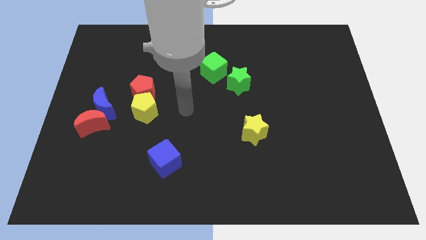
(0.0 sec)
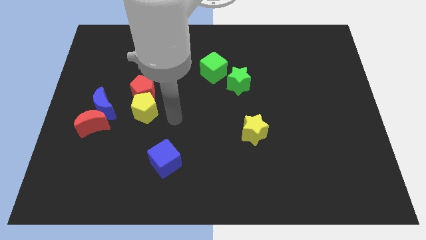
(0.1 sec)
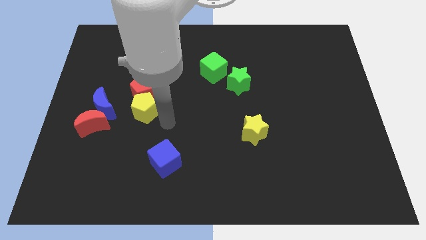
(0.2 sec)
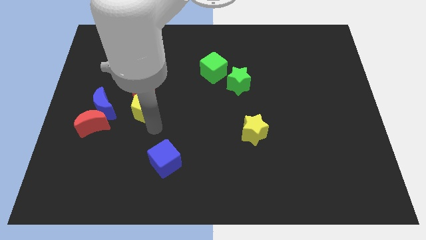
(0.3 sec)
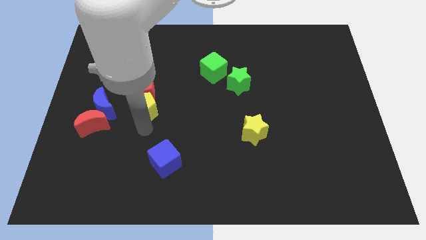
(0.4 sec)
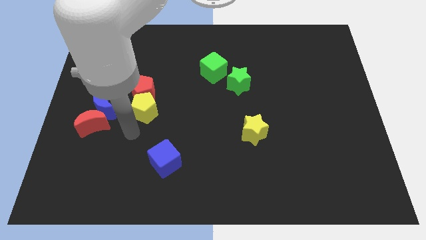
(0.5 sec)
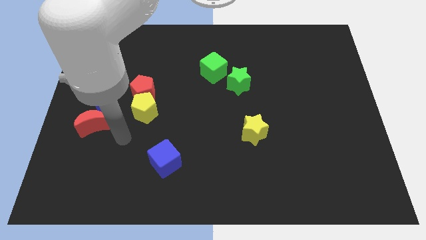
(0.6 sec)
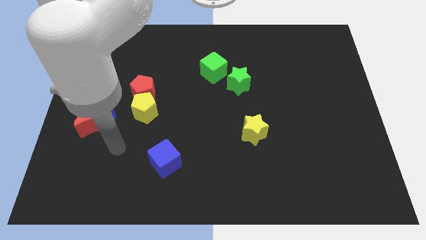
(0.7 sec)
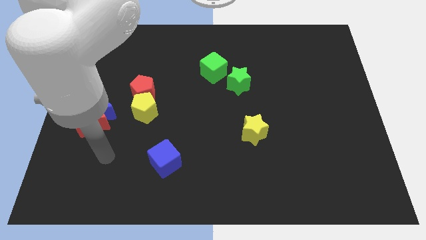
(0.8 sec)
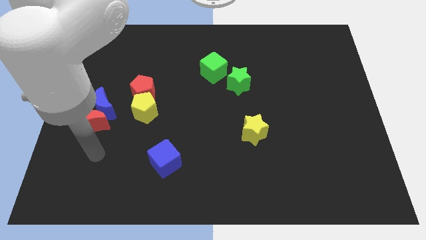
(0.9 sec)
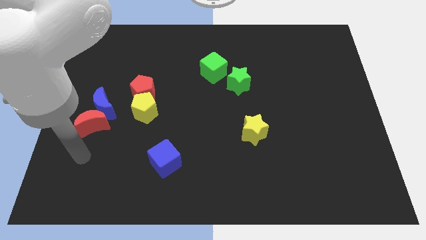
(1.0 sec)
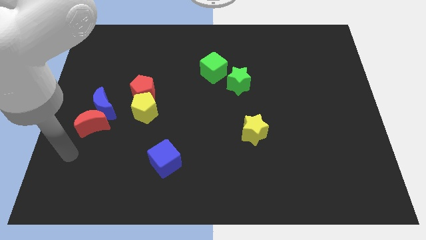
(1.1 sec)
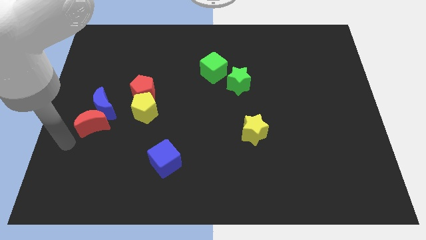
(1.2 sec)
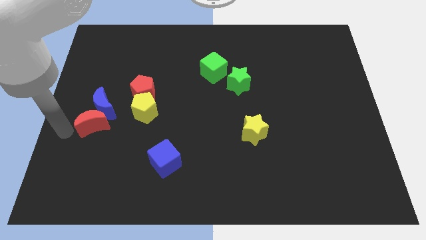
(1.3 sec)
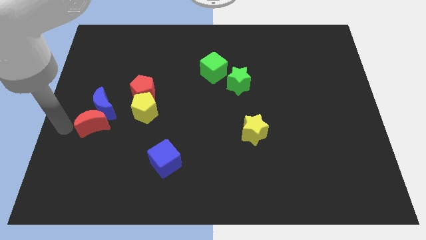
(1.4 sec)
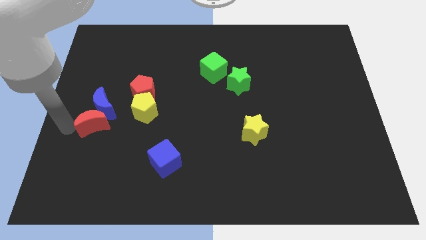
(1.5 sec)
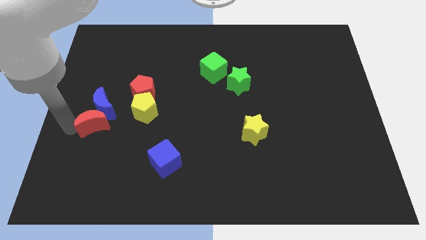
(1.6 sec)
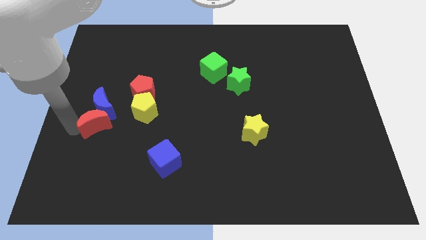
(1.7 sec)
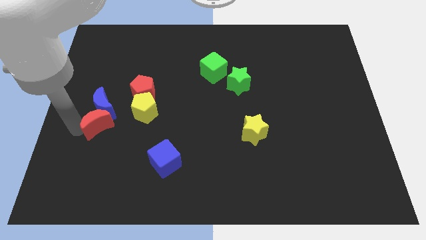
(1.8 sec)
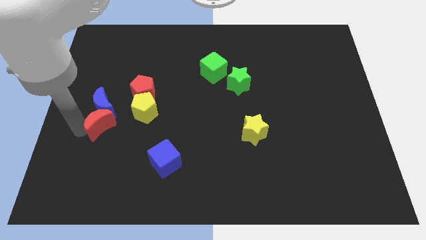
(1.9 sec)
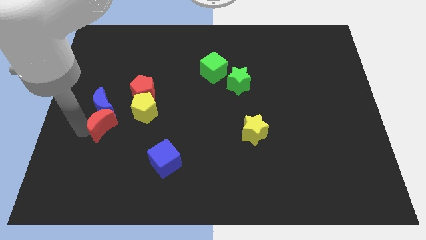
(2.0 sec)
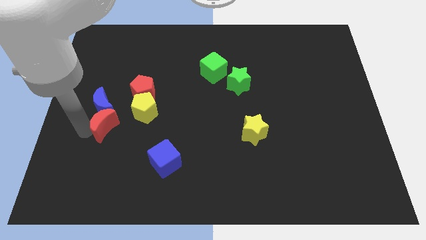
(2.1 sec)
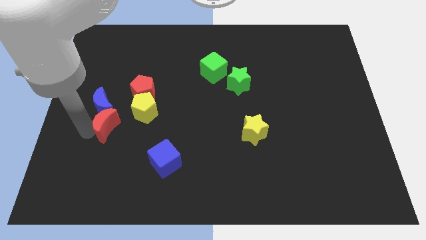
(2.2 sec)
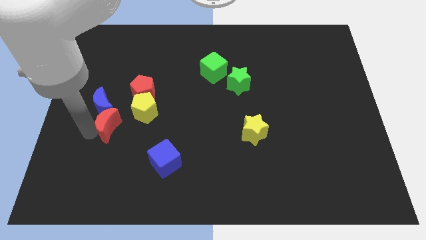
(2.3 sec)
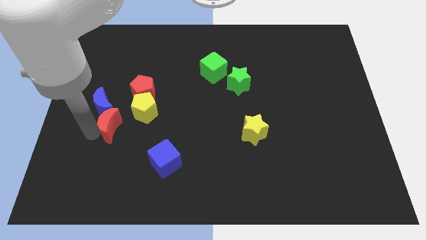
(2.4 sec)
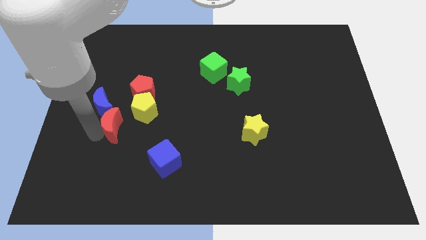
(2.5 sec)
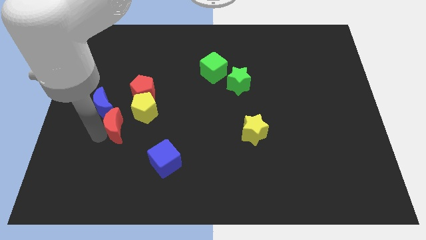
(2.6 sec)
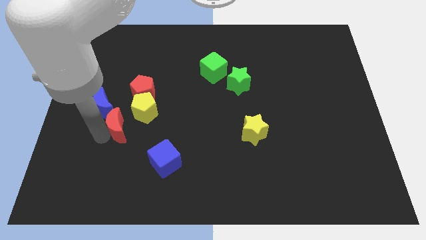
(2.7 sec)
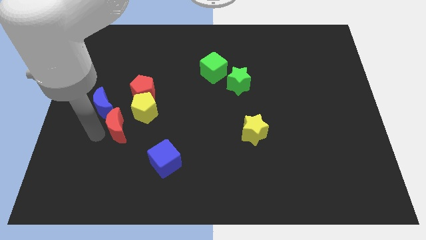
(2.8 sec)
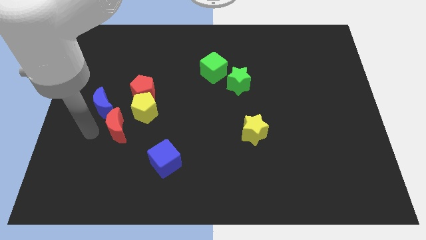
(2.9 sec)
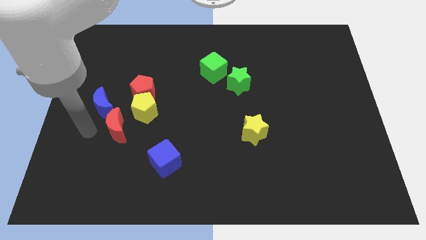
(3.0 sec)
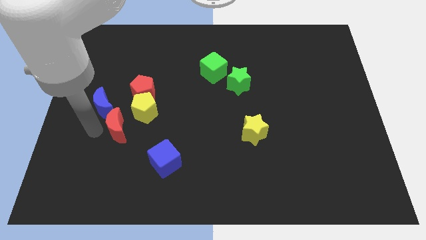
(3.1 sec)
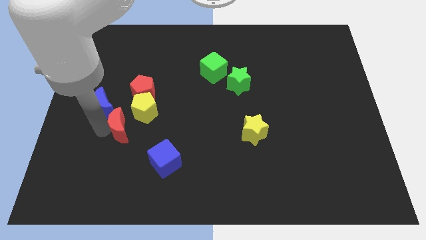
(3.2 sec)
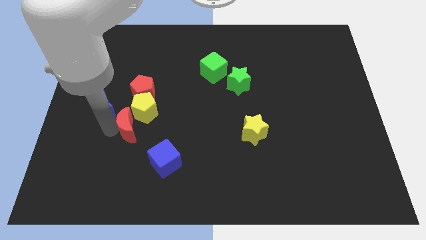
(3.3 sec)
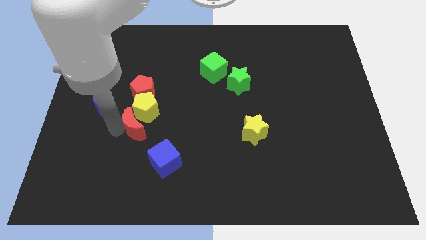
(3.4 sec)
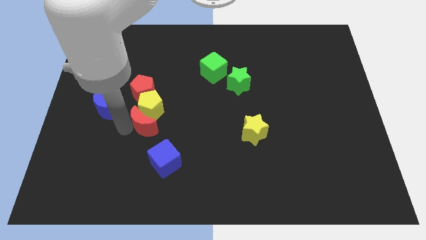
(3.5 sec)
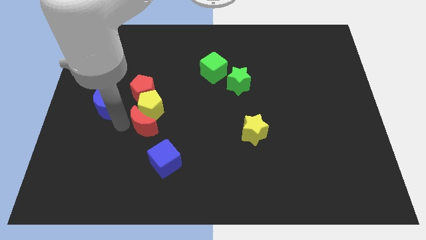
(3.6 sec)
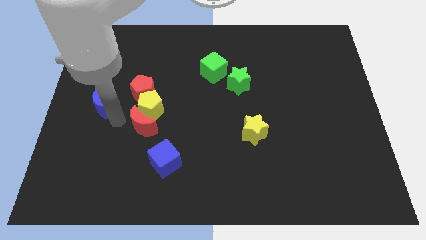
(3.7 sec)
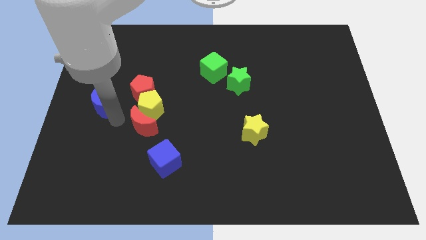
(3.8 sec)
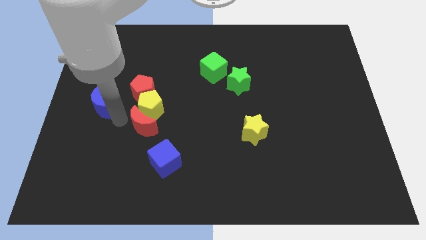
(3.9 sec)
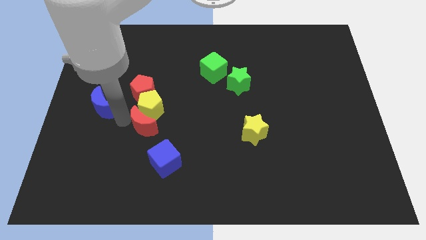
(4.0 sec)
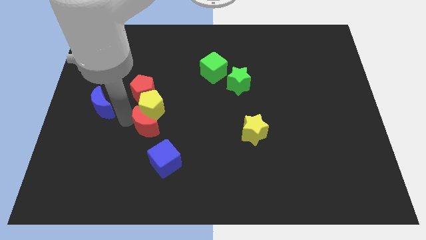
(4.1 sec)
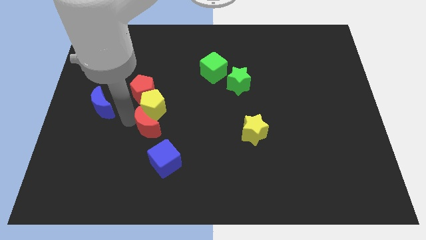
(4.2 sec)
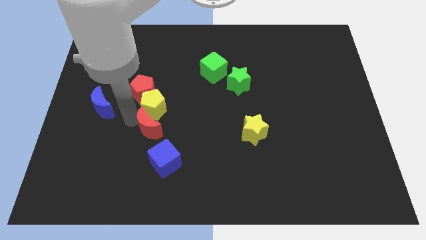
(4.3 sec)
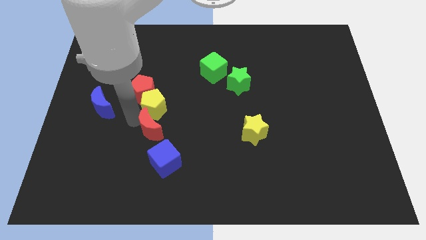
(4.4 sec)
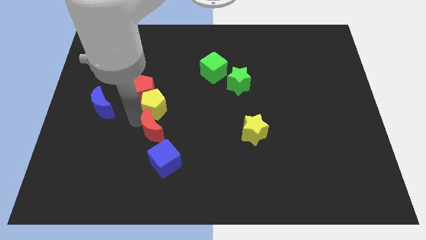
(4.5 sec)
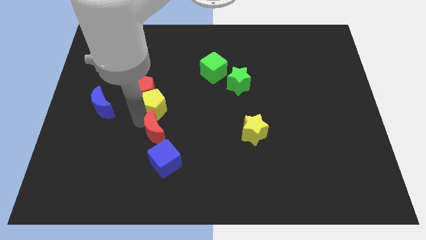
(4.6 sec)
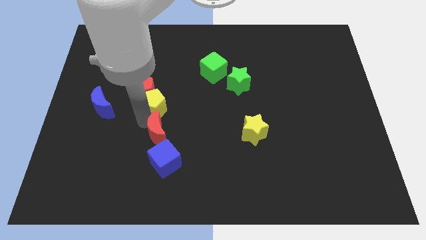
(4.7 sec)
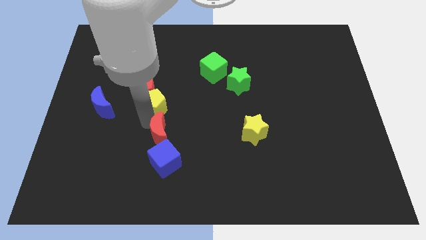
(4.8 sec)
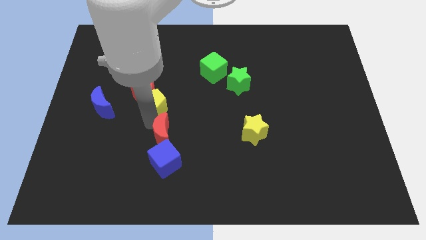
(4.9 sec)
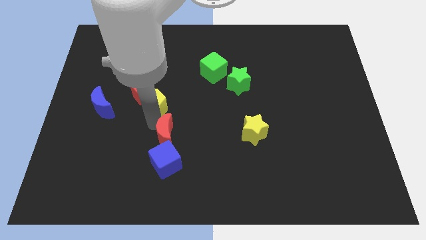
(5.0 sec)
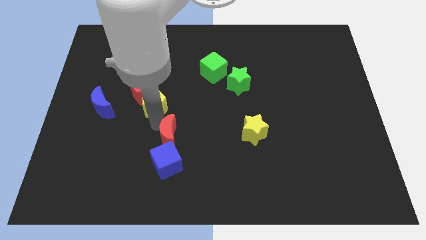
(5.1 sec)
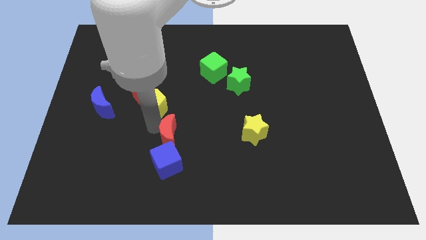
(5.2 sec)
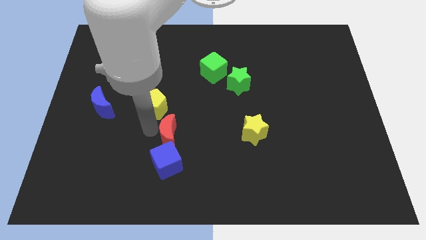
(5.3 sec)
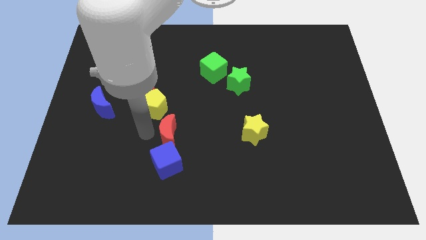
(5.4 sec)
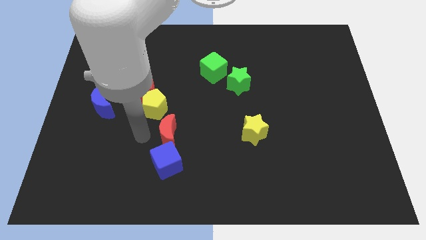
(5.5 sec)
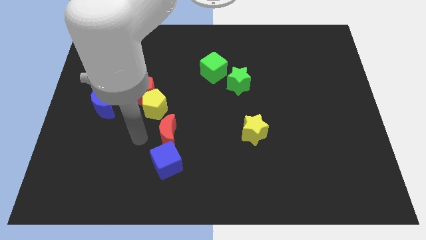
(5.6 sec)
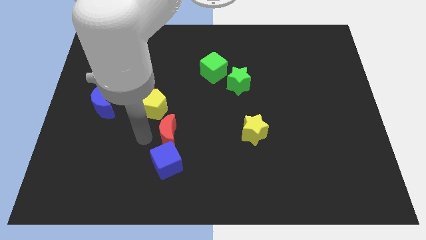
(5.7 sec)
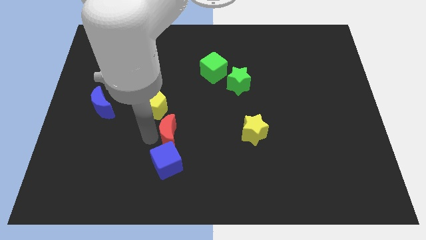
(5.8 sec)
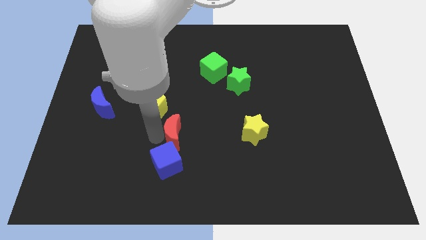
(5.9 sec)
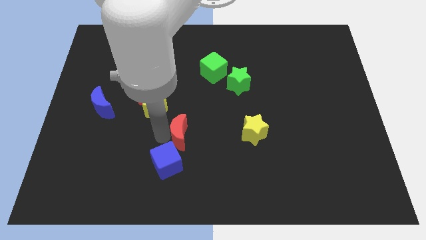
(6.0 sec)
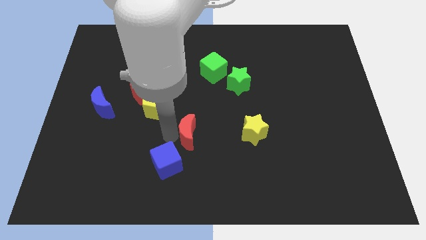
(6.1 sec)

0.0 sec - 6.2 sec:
move the red moon right

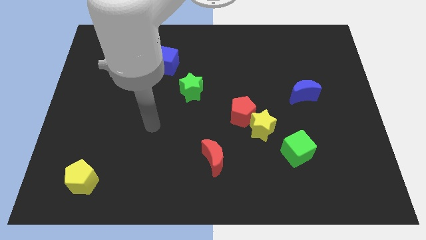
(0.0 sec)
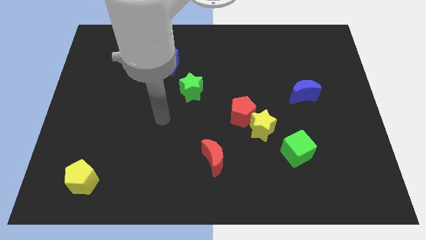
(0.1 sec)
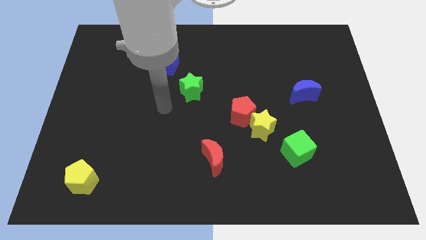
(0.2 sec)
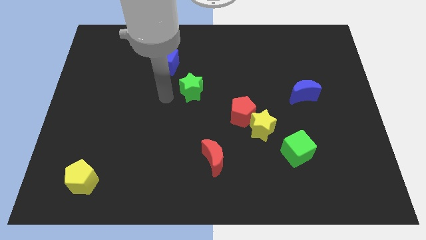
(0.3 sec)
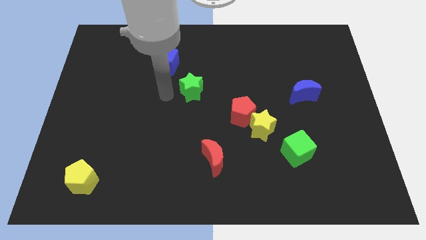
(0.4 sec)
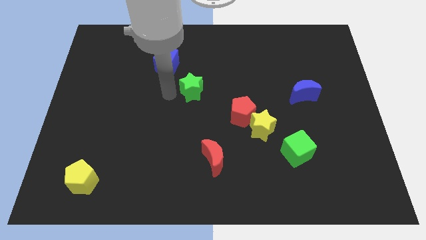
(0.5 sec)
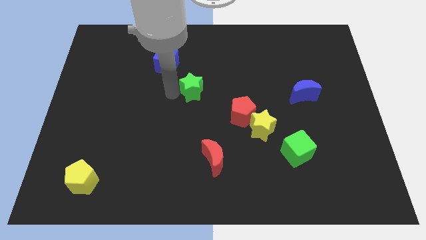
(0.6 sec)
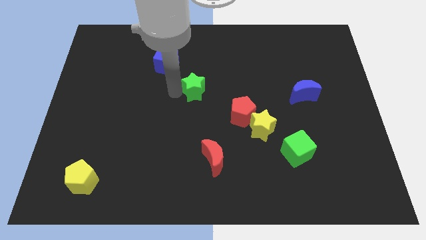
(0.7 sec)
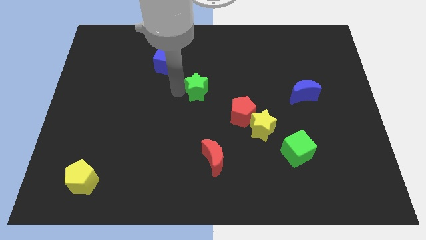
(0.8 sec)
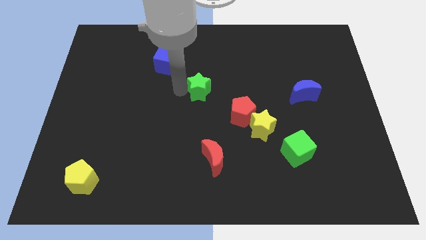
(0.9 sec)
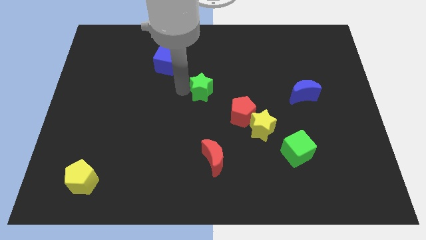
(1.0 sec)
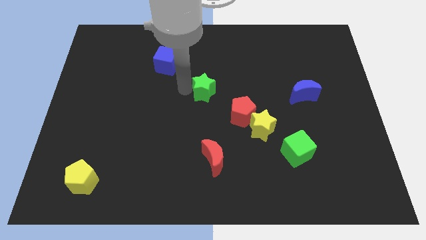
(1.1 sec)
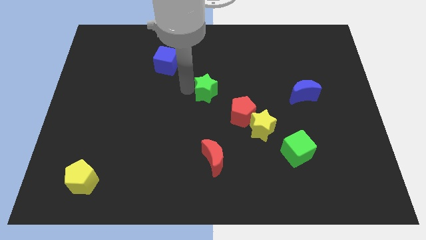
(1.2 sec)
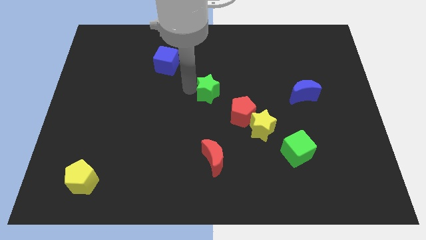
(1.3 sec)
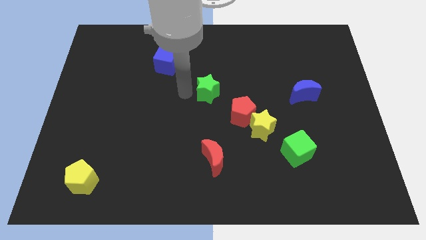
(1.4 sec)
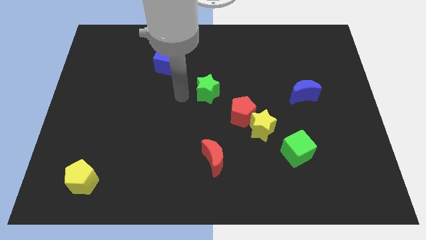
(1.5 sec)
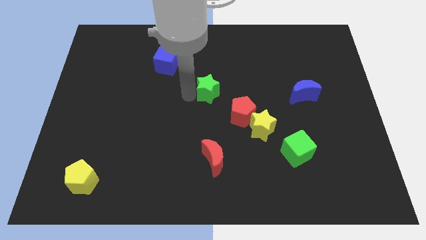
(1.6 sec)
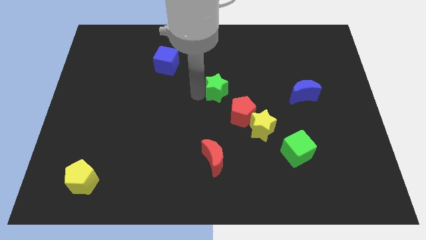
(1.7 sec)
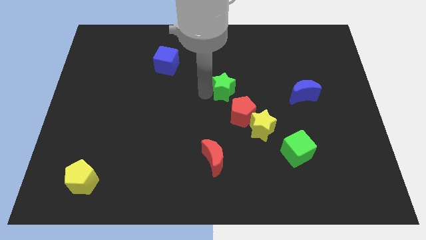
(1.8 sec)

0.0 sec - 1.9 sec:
slide the green star slightly right

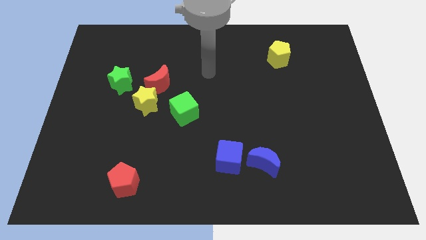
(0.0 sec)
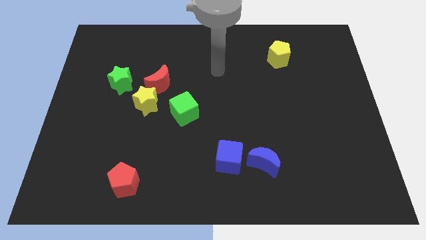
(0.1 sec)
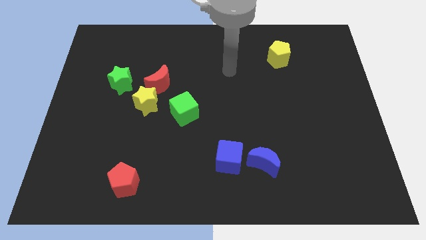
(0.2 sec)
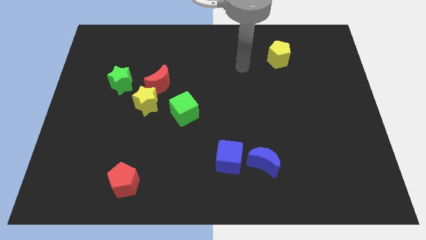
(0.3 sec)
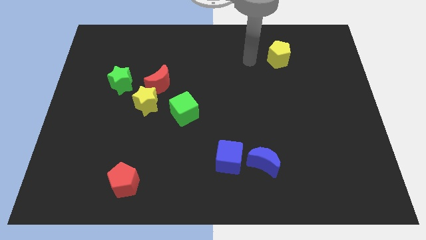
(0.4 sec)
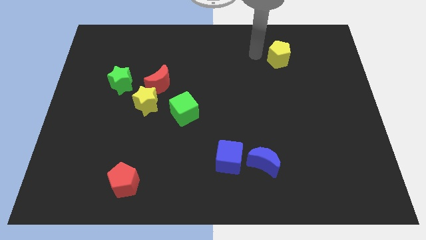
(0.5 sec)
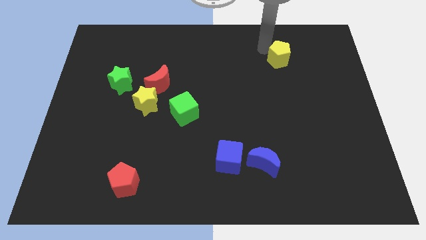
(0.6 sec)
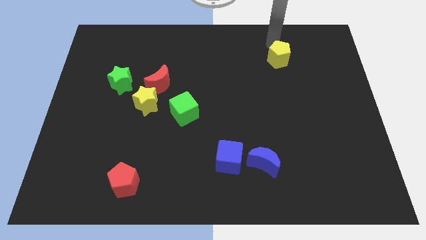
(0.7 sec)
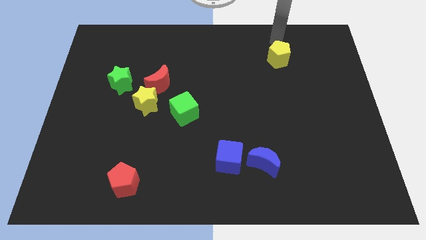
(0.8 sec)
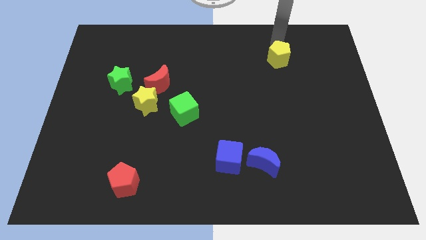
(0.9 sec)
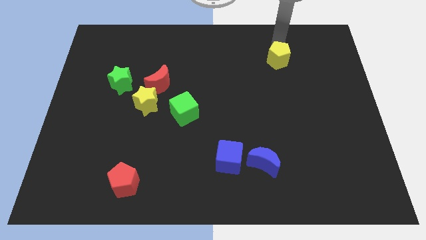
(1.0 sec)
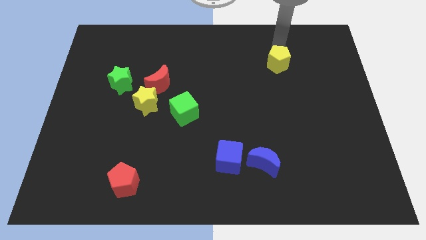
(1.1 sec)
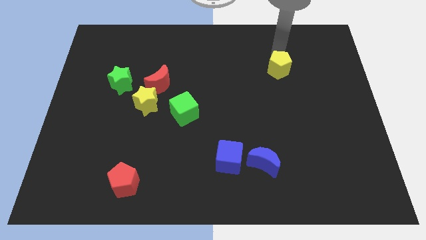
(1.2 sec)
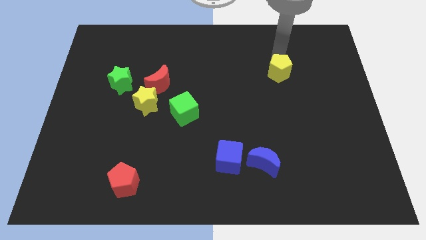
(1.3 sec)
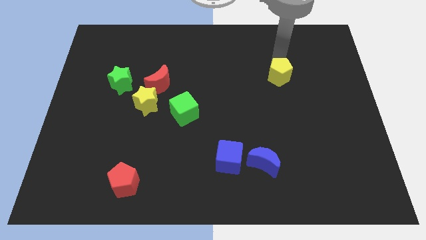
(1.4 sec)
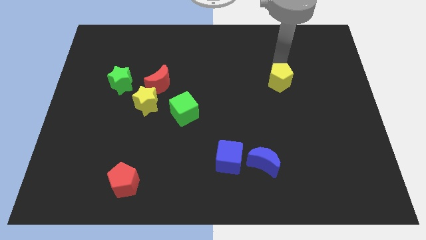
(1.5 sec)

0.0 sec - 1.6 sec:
slightly move the yellow pentagon down
